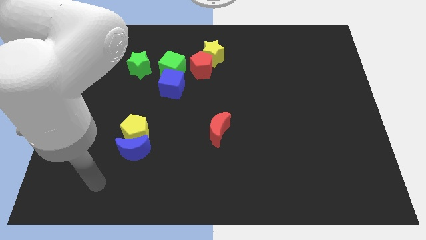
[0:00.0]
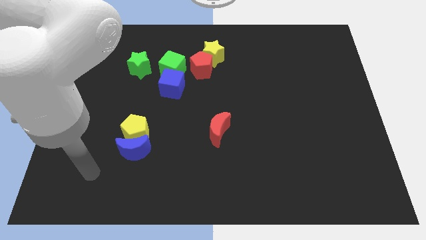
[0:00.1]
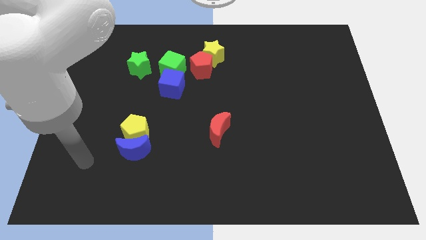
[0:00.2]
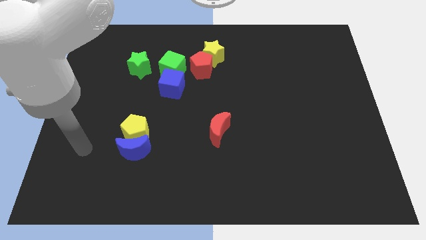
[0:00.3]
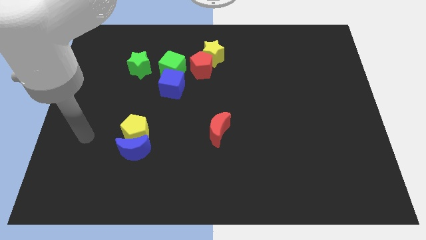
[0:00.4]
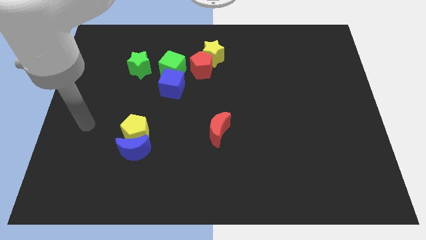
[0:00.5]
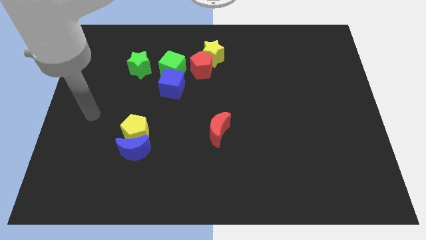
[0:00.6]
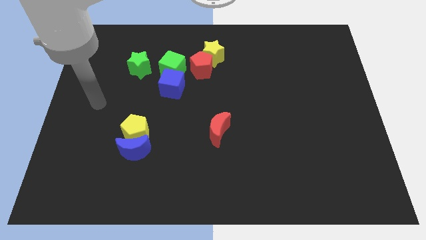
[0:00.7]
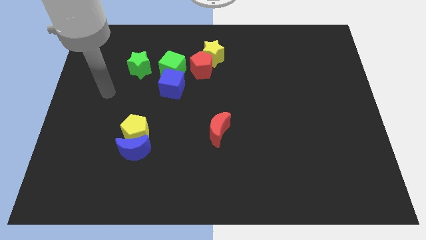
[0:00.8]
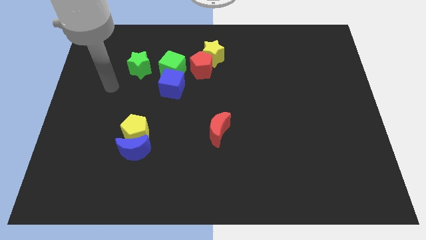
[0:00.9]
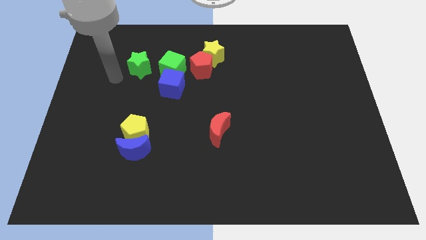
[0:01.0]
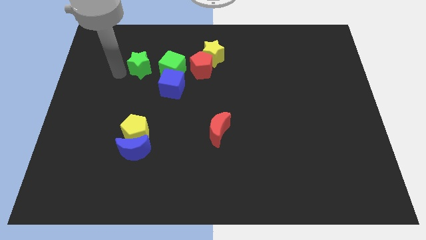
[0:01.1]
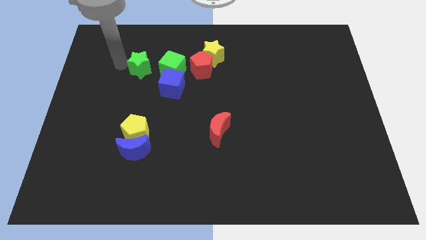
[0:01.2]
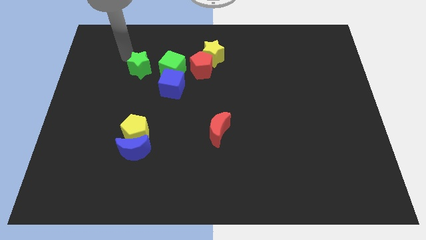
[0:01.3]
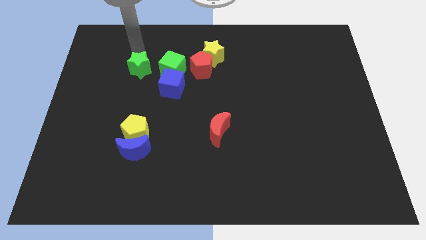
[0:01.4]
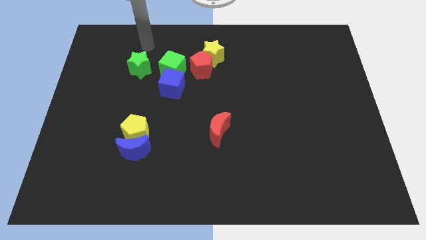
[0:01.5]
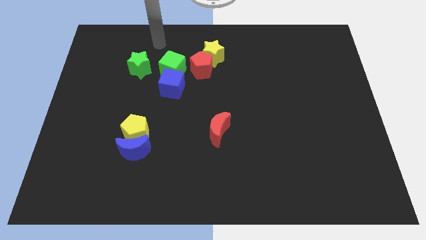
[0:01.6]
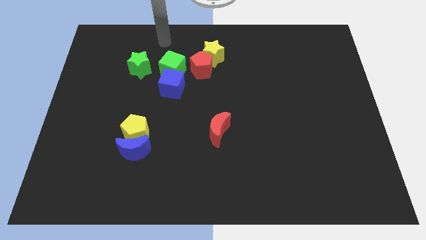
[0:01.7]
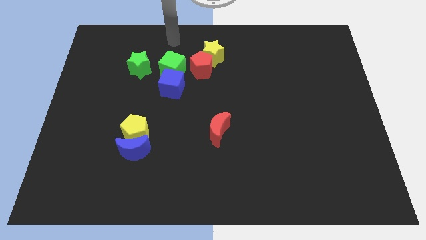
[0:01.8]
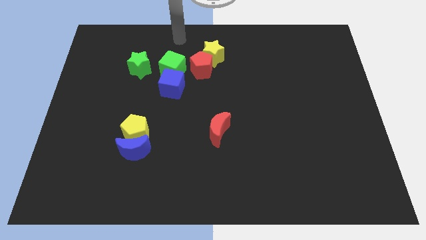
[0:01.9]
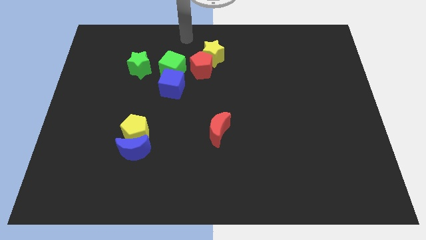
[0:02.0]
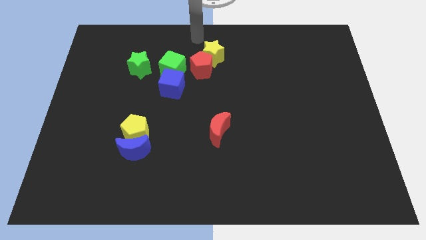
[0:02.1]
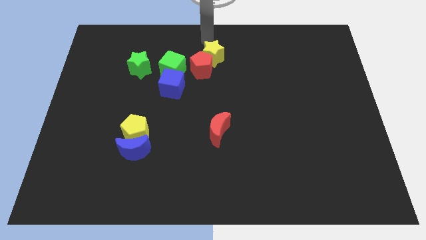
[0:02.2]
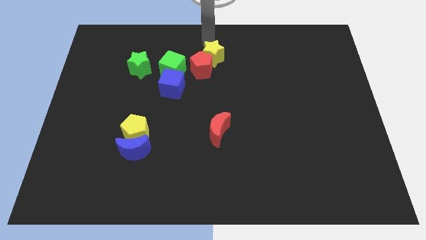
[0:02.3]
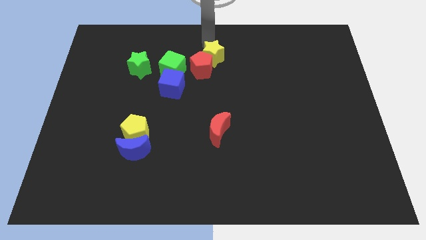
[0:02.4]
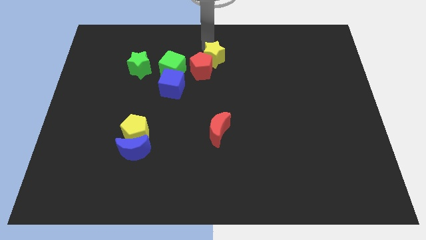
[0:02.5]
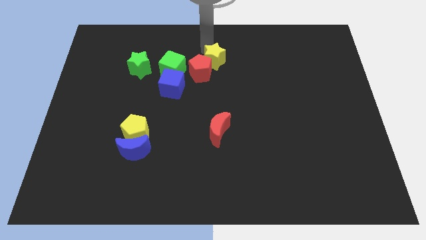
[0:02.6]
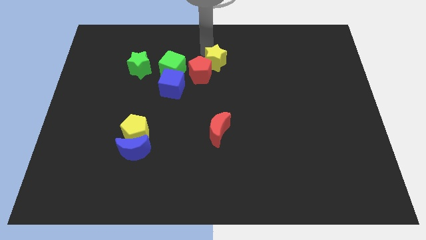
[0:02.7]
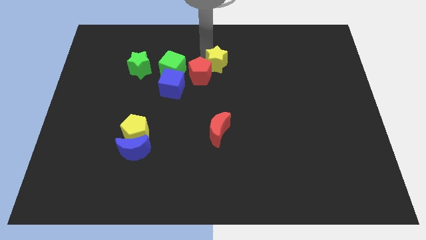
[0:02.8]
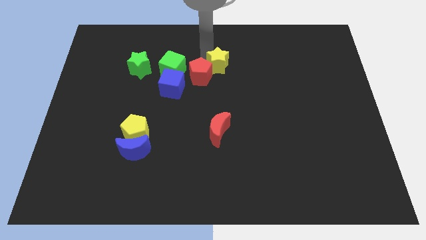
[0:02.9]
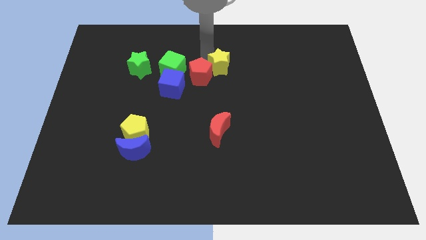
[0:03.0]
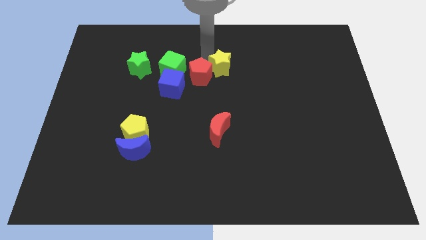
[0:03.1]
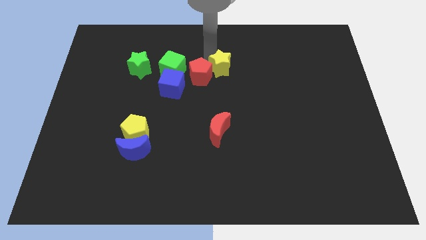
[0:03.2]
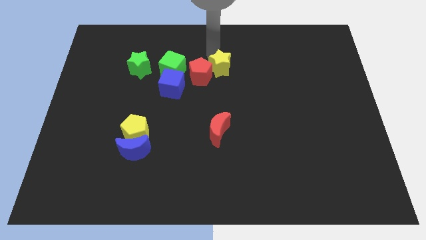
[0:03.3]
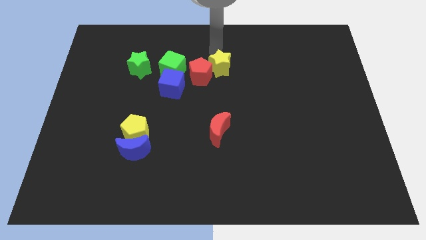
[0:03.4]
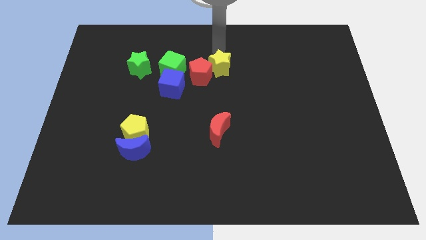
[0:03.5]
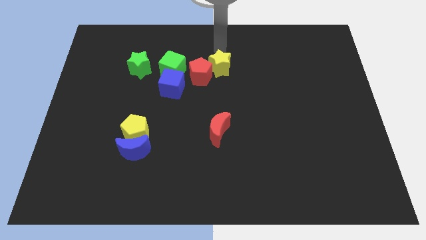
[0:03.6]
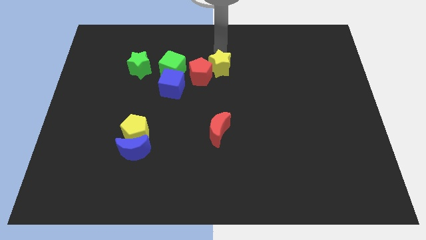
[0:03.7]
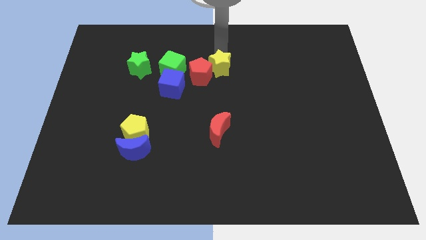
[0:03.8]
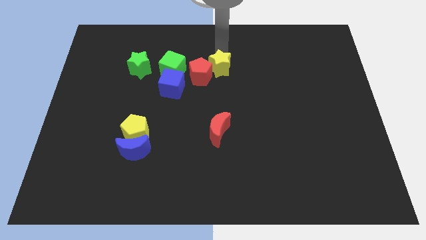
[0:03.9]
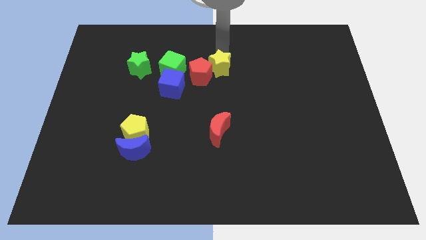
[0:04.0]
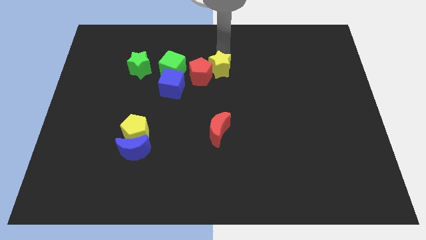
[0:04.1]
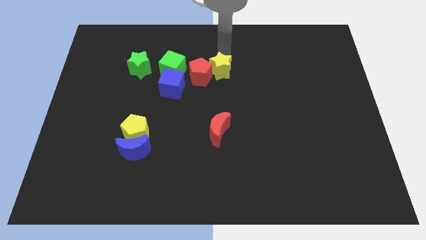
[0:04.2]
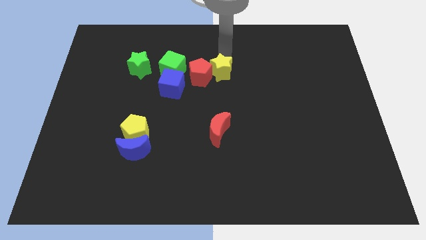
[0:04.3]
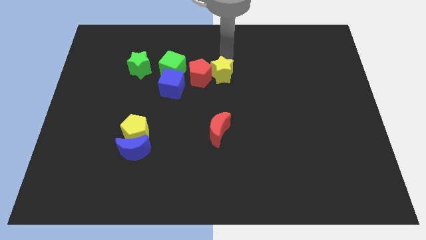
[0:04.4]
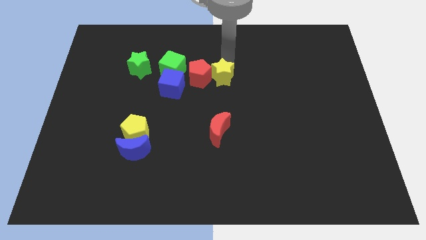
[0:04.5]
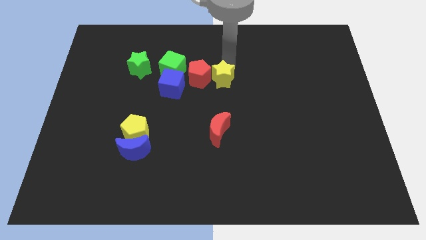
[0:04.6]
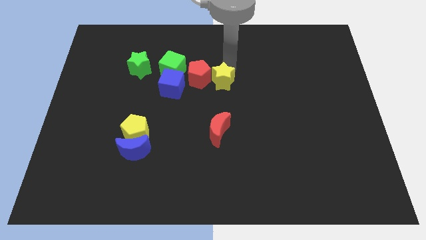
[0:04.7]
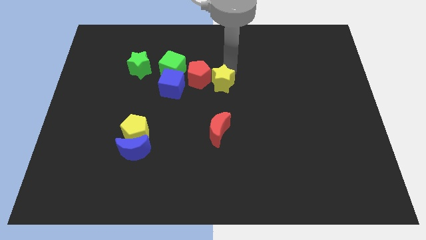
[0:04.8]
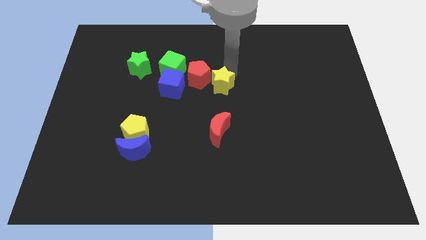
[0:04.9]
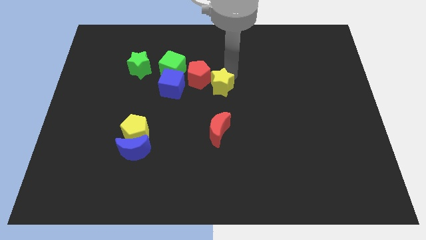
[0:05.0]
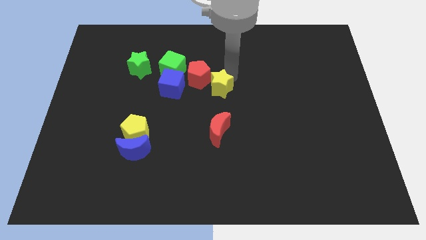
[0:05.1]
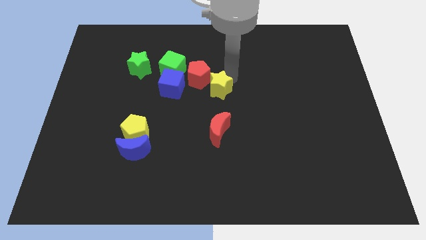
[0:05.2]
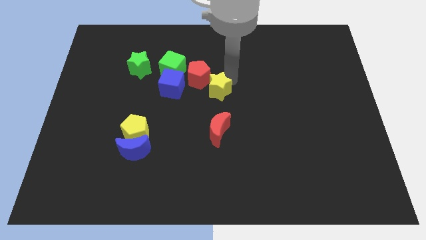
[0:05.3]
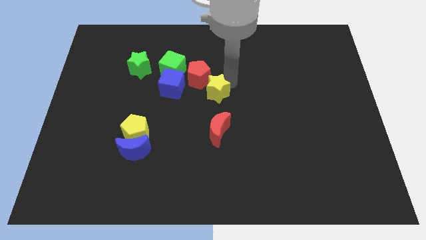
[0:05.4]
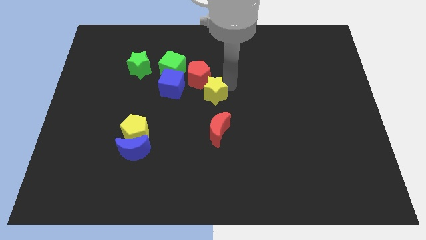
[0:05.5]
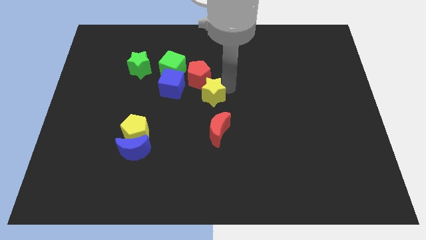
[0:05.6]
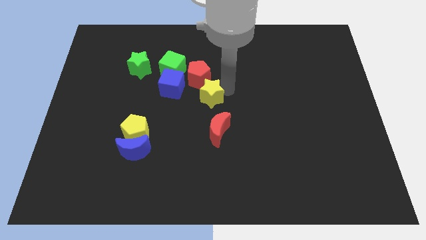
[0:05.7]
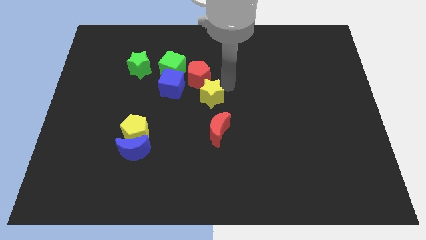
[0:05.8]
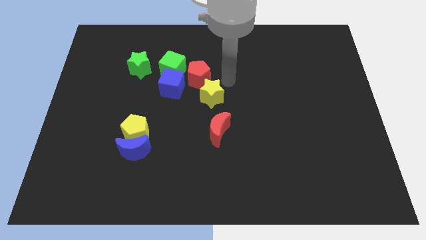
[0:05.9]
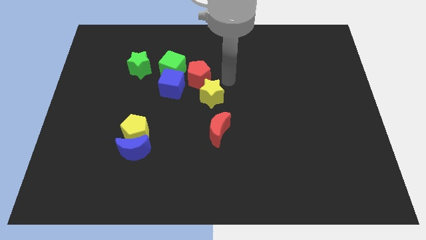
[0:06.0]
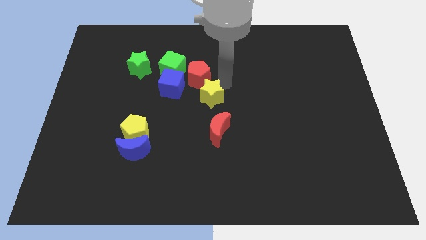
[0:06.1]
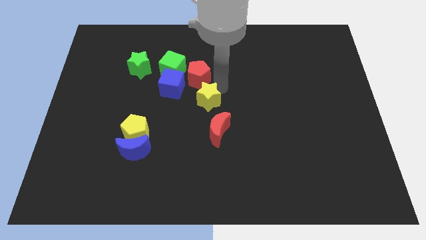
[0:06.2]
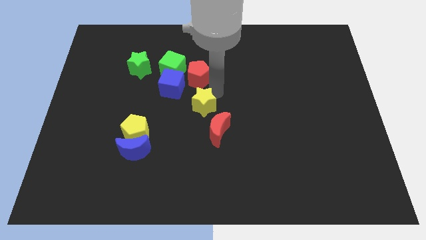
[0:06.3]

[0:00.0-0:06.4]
put the yellow star to the top left side of the red moon
